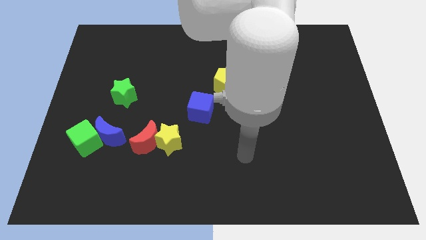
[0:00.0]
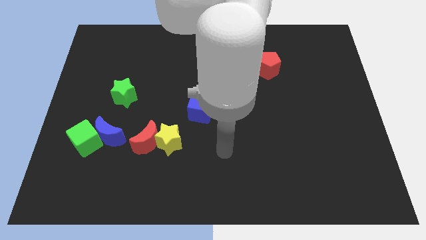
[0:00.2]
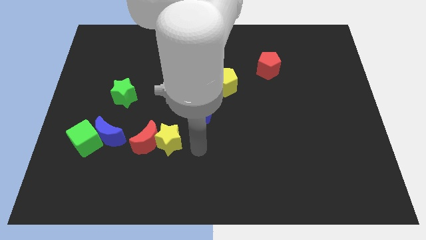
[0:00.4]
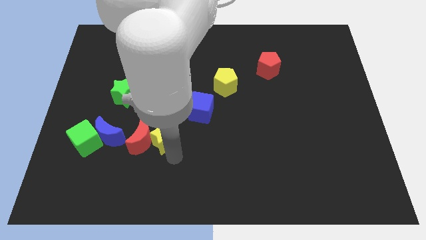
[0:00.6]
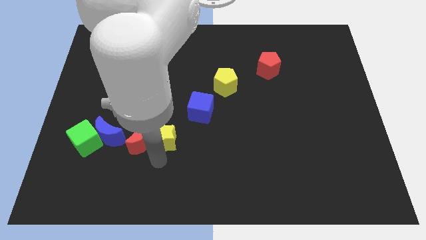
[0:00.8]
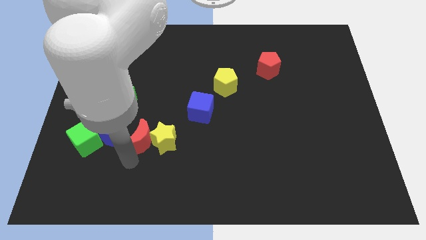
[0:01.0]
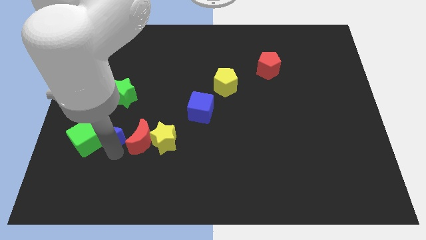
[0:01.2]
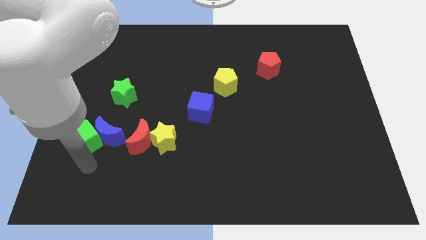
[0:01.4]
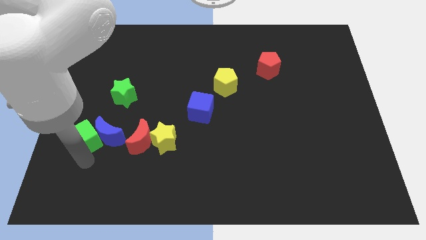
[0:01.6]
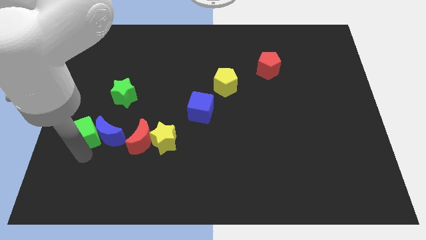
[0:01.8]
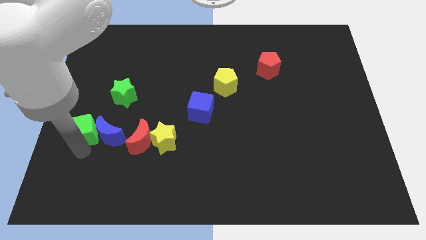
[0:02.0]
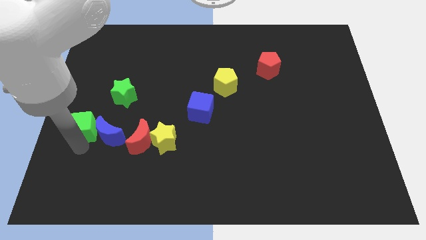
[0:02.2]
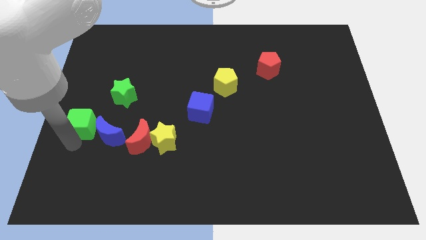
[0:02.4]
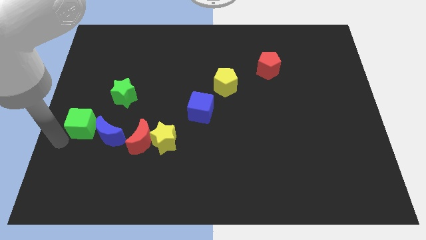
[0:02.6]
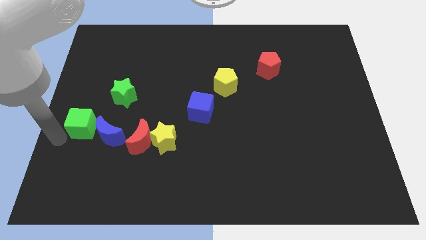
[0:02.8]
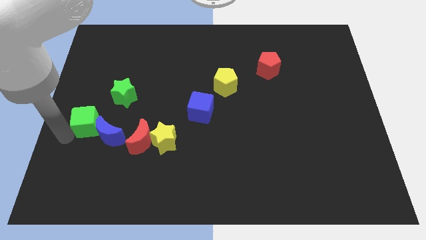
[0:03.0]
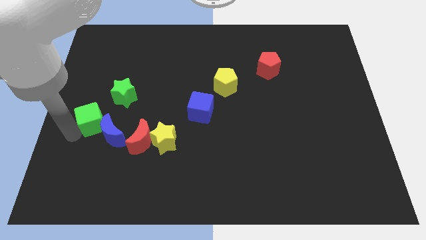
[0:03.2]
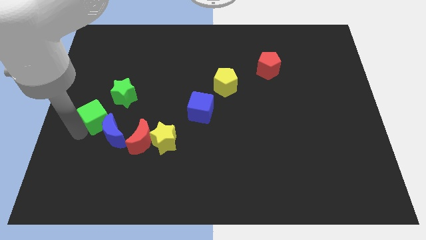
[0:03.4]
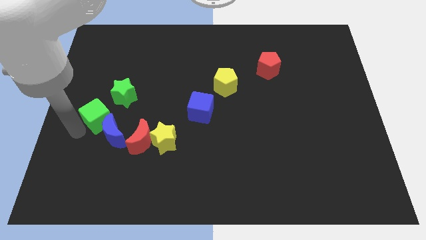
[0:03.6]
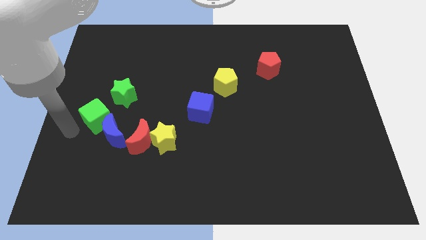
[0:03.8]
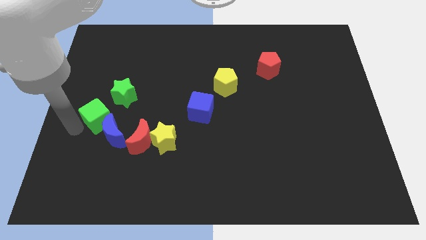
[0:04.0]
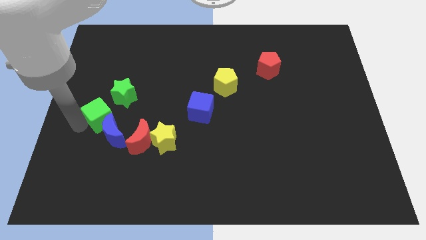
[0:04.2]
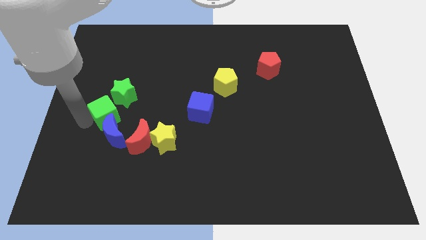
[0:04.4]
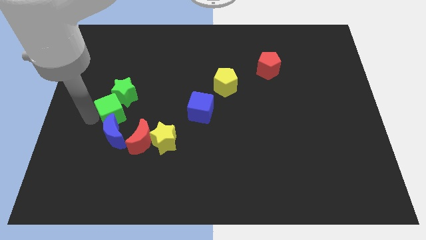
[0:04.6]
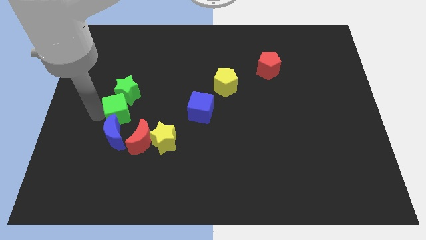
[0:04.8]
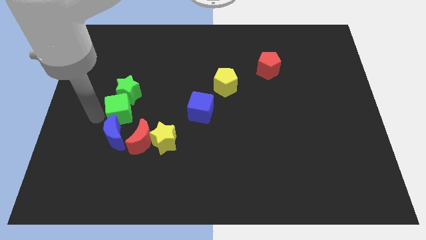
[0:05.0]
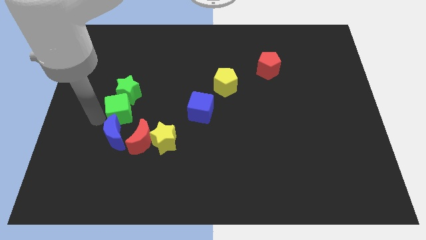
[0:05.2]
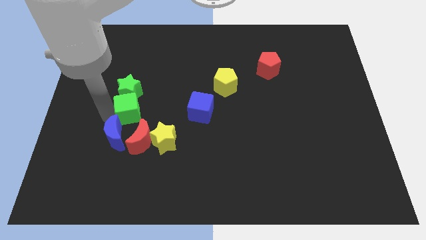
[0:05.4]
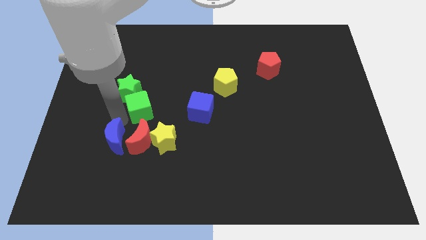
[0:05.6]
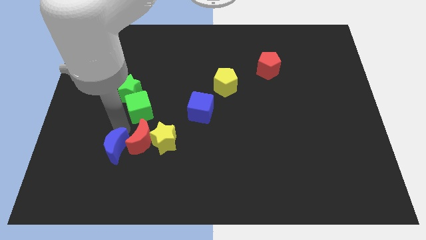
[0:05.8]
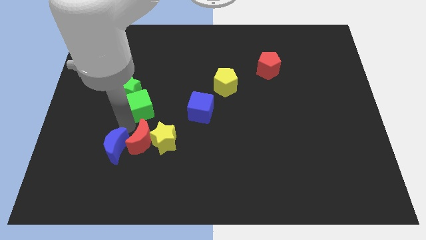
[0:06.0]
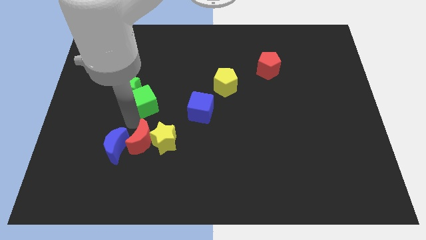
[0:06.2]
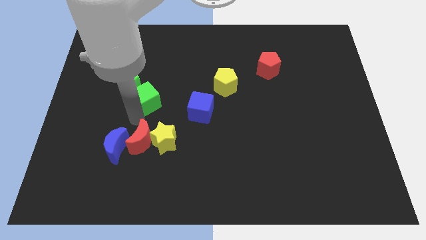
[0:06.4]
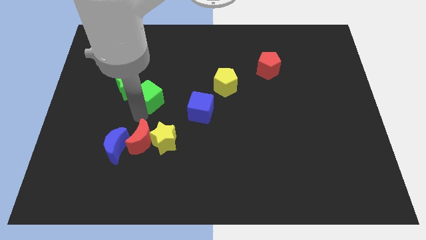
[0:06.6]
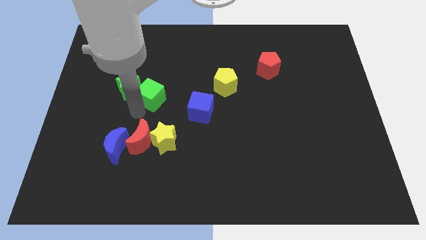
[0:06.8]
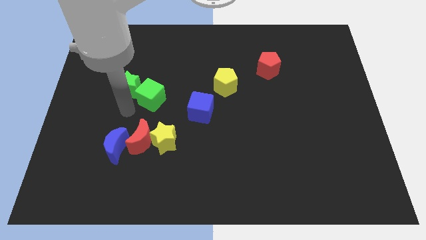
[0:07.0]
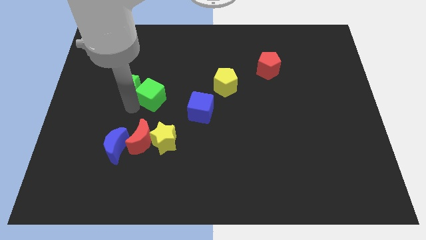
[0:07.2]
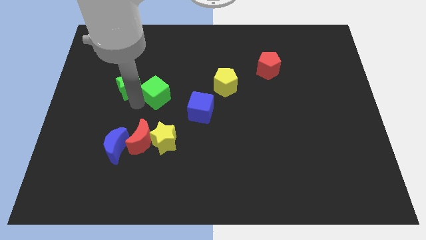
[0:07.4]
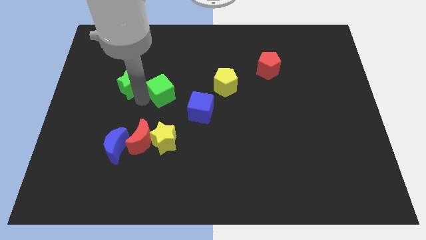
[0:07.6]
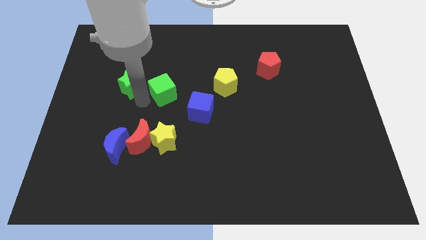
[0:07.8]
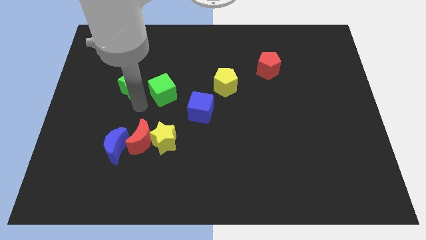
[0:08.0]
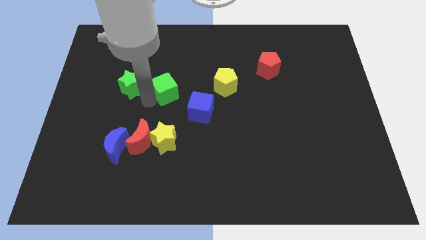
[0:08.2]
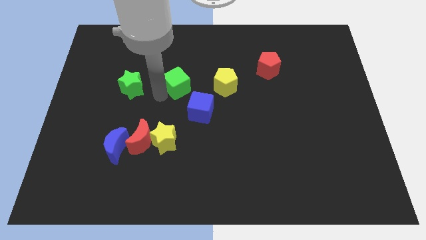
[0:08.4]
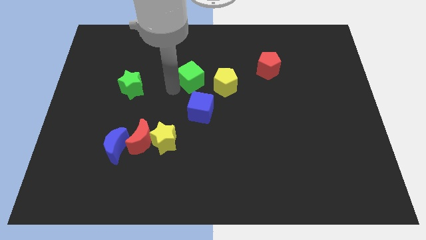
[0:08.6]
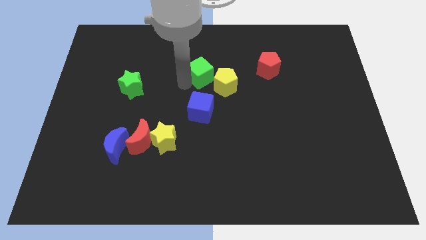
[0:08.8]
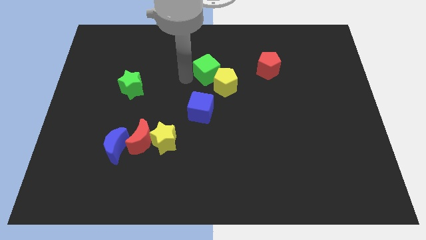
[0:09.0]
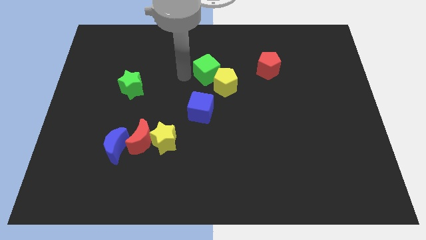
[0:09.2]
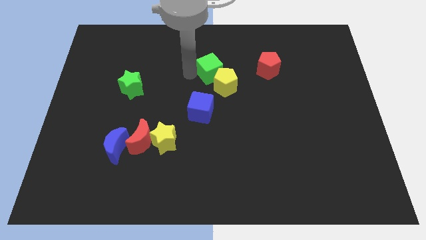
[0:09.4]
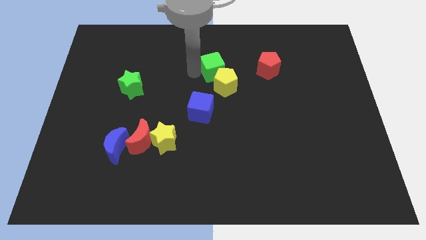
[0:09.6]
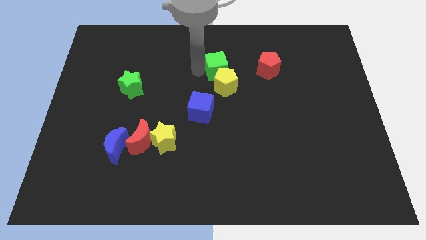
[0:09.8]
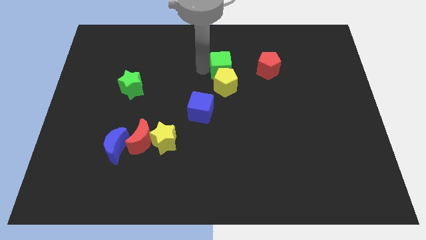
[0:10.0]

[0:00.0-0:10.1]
push the green cube to the top right of the yellow pentagon

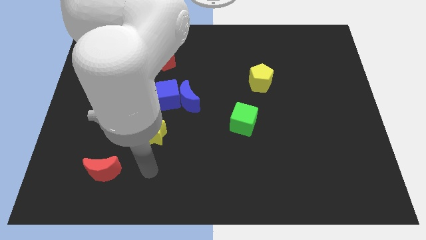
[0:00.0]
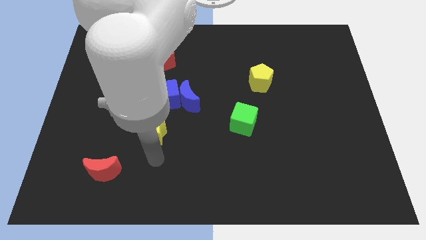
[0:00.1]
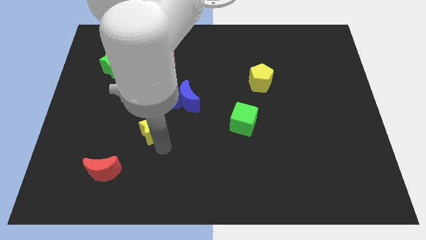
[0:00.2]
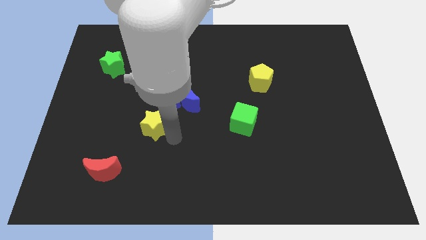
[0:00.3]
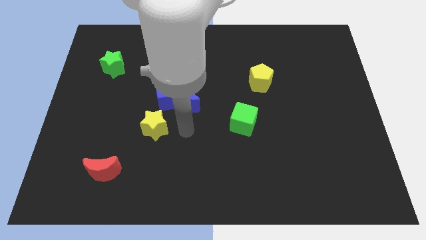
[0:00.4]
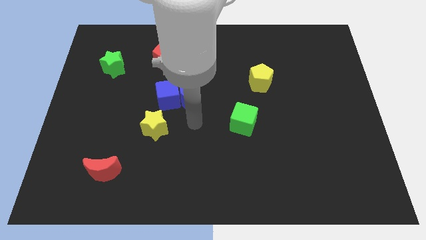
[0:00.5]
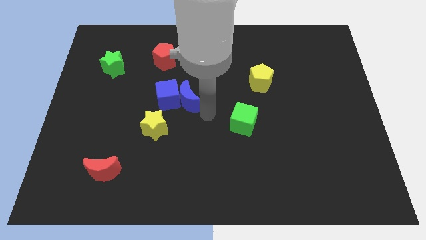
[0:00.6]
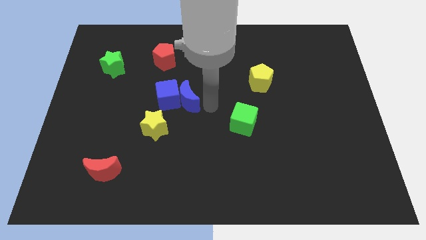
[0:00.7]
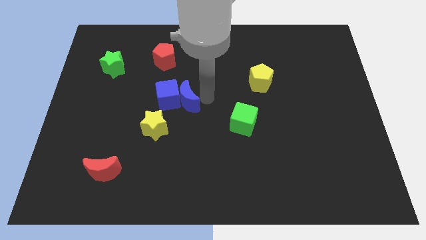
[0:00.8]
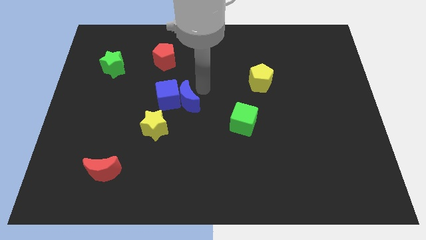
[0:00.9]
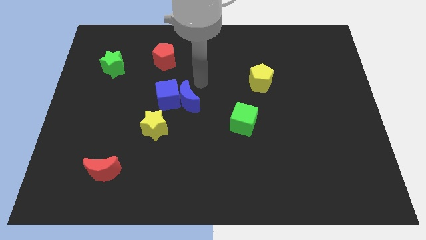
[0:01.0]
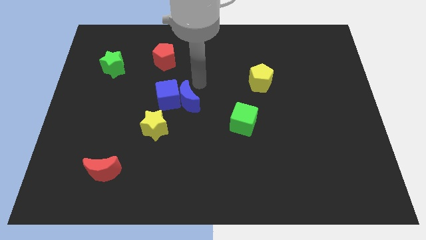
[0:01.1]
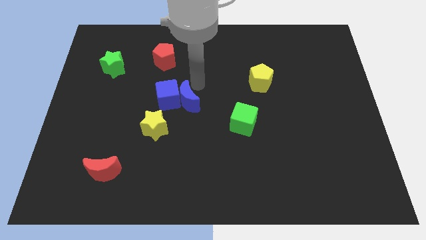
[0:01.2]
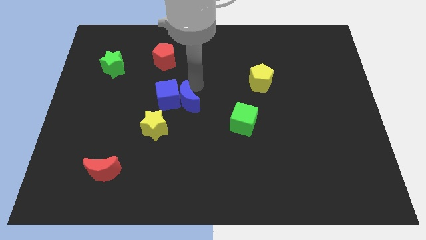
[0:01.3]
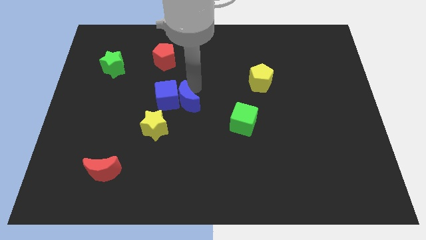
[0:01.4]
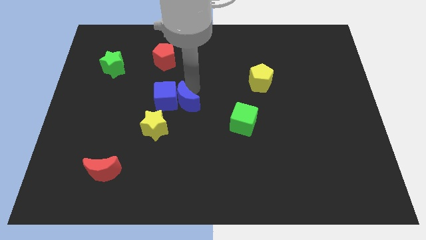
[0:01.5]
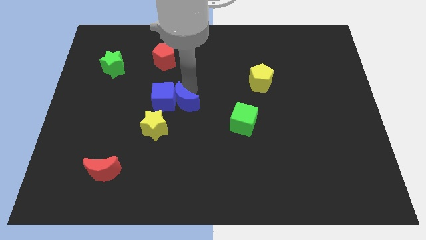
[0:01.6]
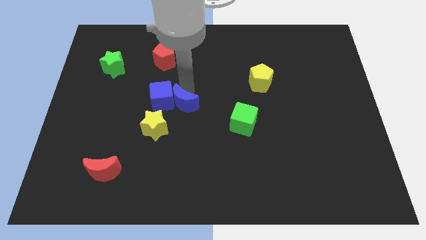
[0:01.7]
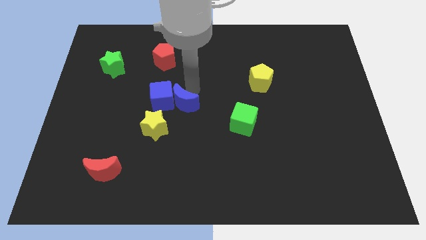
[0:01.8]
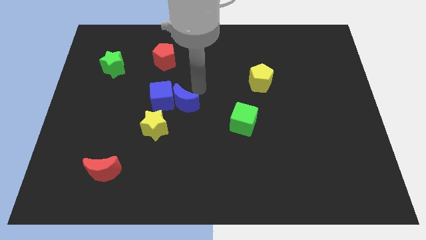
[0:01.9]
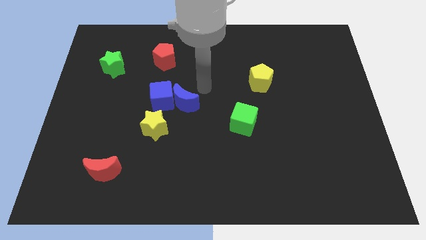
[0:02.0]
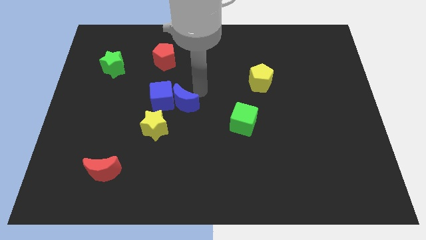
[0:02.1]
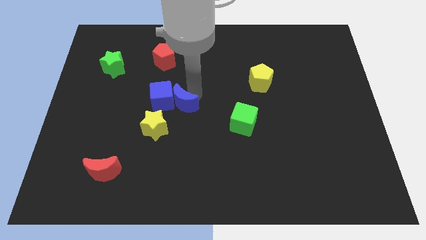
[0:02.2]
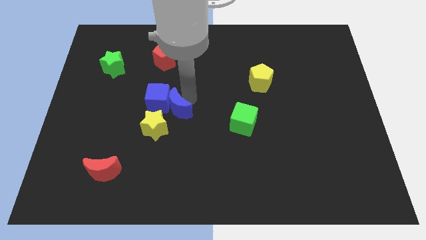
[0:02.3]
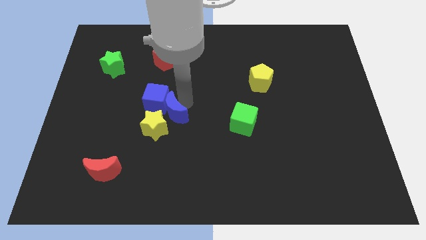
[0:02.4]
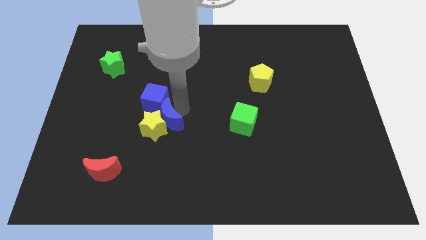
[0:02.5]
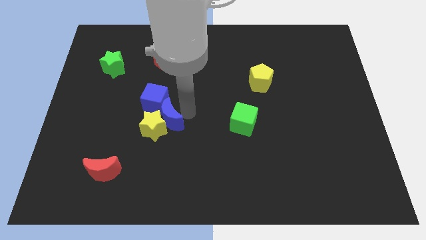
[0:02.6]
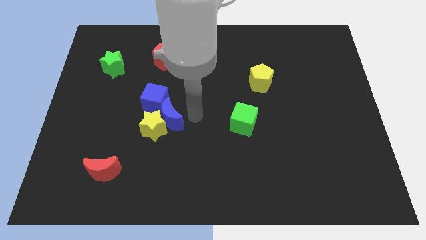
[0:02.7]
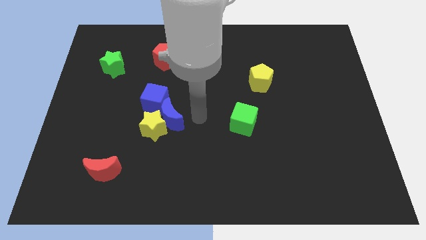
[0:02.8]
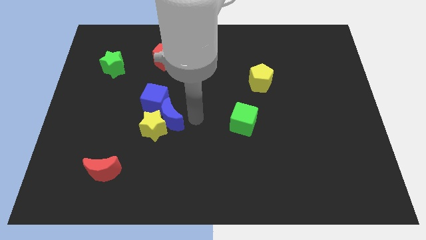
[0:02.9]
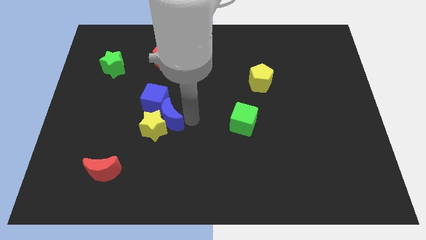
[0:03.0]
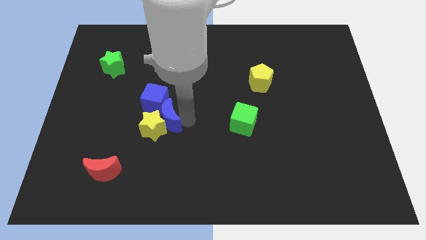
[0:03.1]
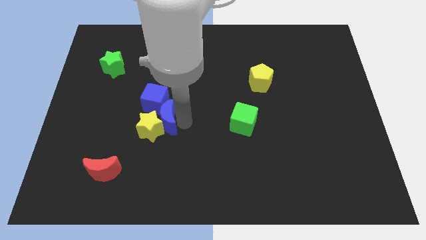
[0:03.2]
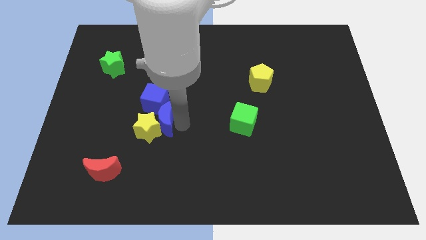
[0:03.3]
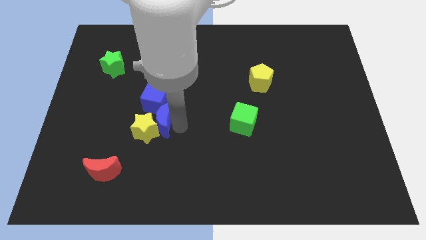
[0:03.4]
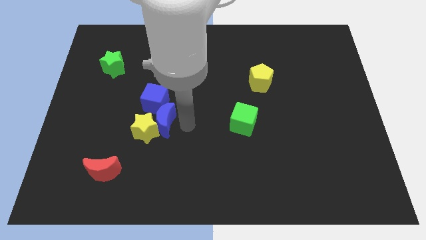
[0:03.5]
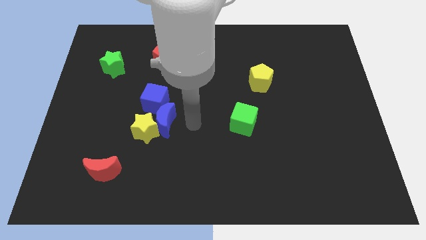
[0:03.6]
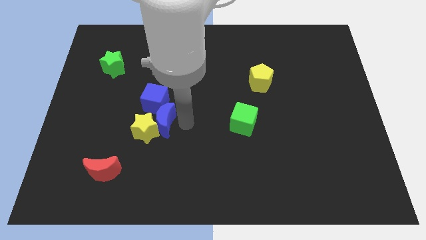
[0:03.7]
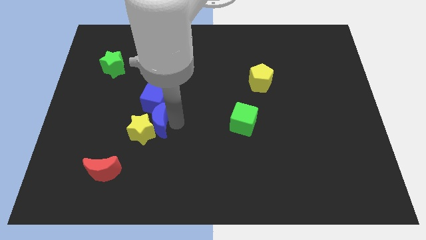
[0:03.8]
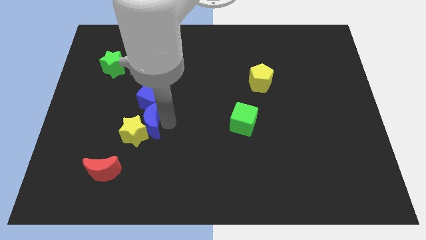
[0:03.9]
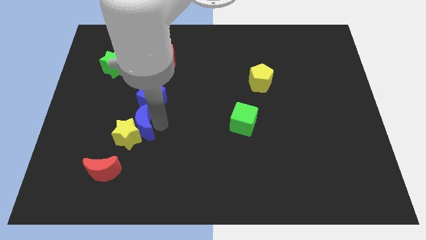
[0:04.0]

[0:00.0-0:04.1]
put the blue moon to the bottom left of the blue cube
